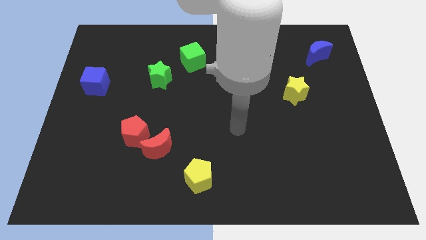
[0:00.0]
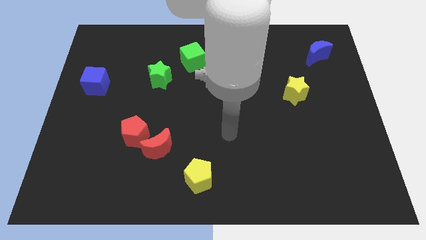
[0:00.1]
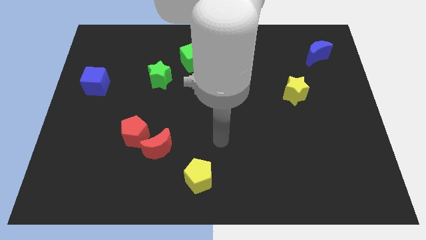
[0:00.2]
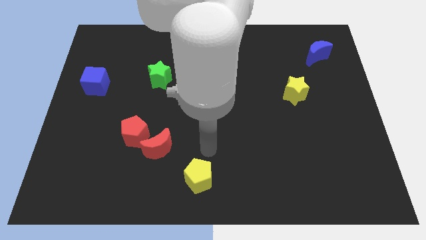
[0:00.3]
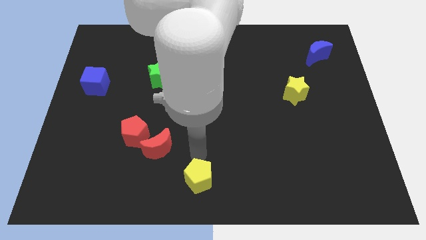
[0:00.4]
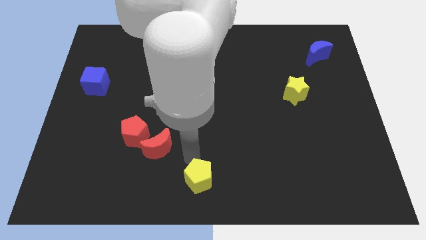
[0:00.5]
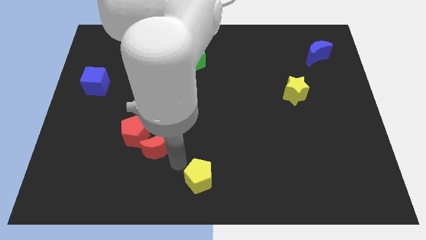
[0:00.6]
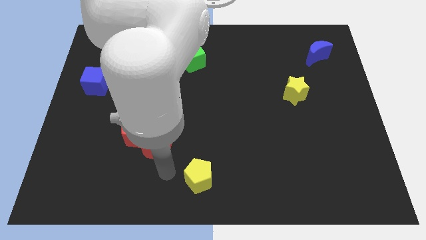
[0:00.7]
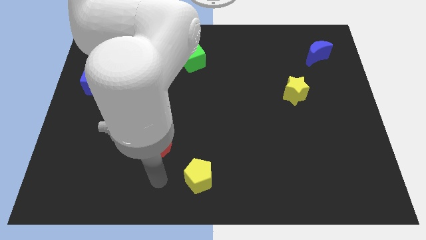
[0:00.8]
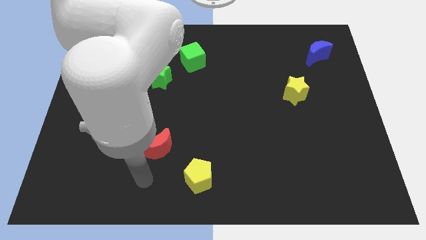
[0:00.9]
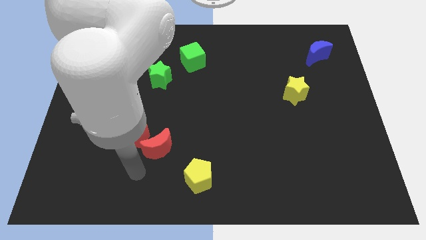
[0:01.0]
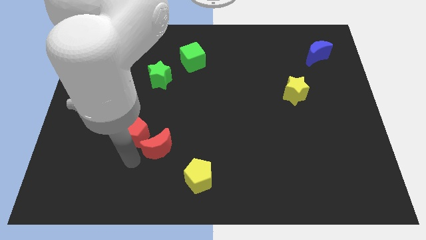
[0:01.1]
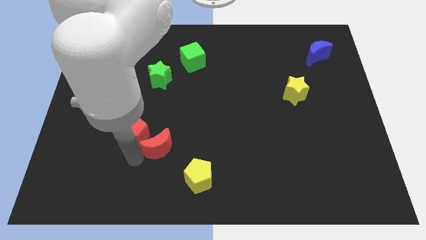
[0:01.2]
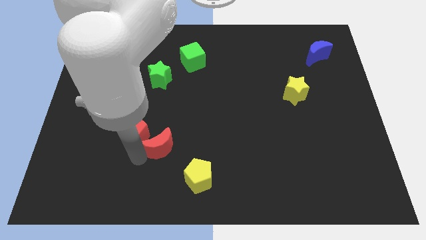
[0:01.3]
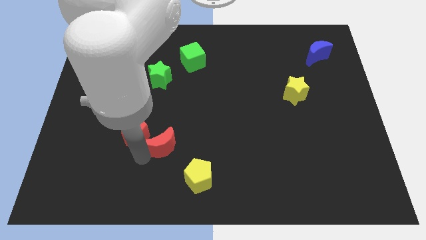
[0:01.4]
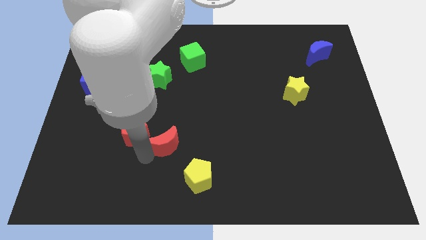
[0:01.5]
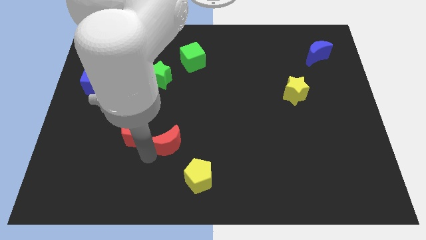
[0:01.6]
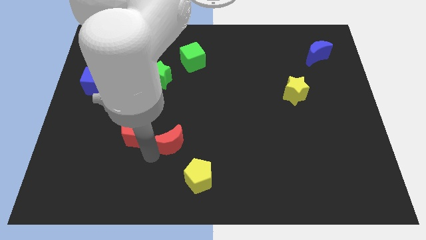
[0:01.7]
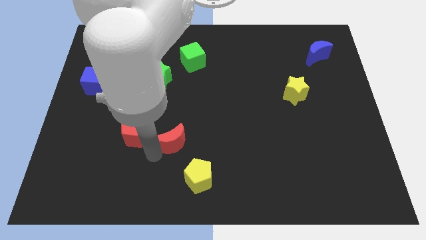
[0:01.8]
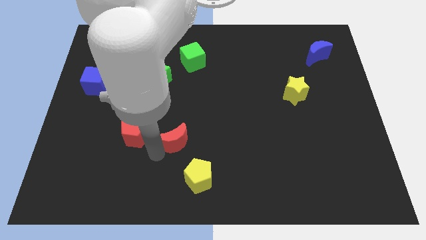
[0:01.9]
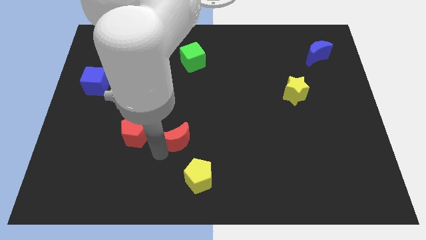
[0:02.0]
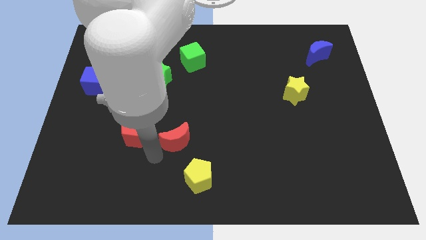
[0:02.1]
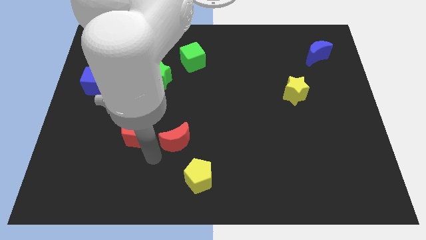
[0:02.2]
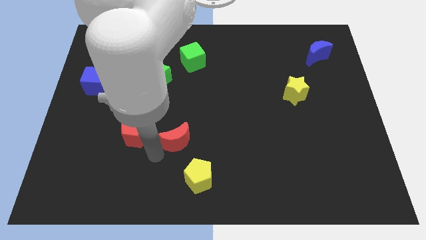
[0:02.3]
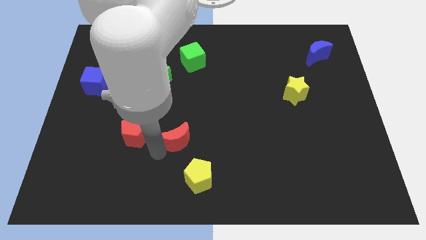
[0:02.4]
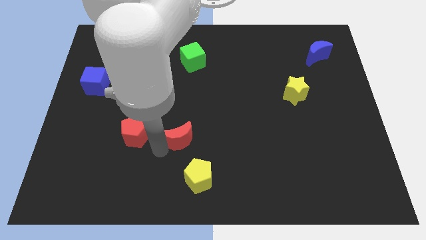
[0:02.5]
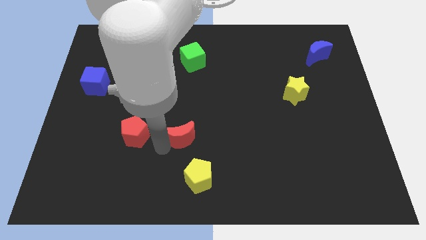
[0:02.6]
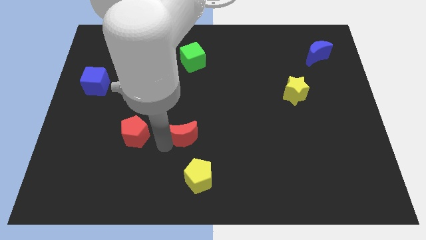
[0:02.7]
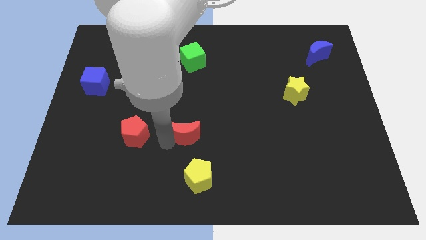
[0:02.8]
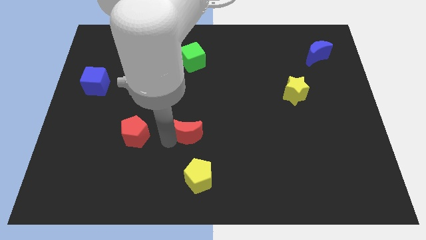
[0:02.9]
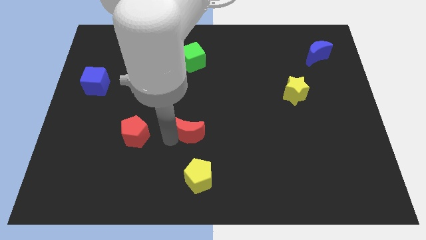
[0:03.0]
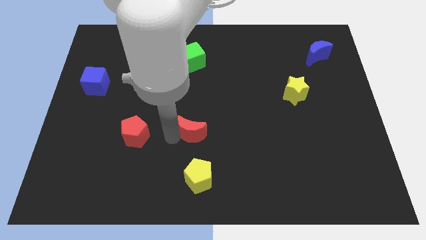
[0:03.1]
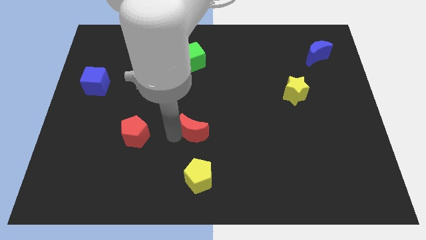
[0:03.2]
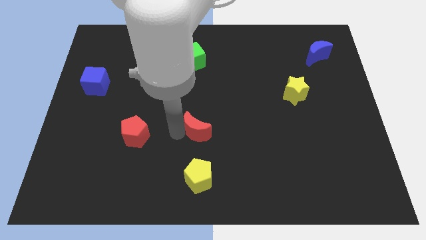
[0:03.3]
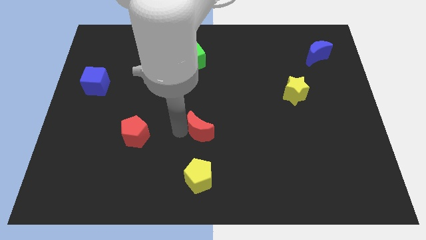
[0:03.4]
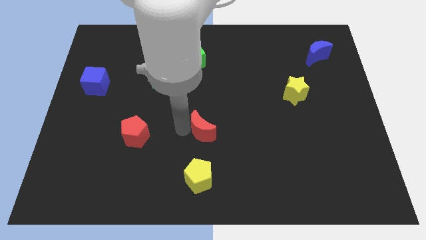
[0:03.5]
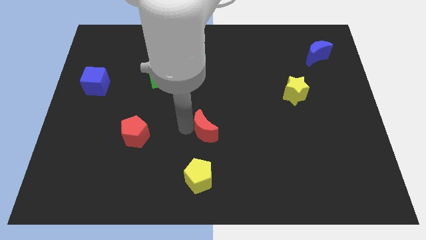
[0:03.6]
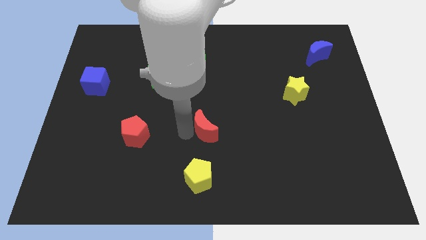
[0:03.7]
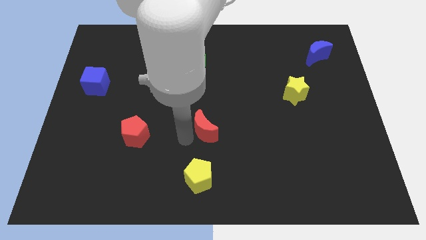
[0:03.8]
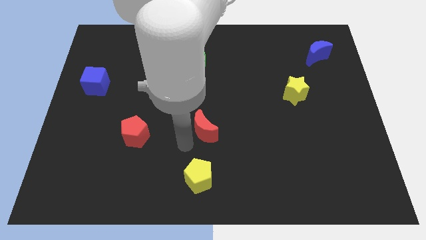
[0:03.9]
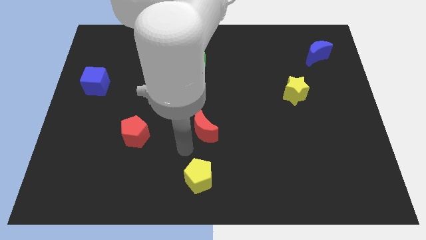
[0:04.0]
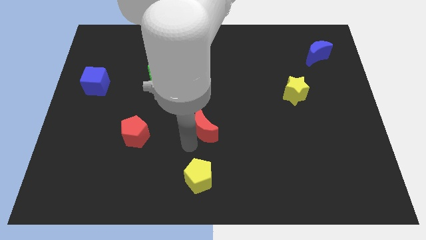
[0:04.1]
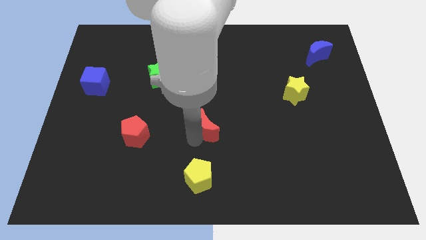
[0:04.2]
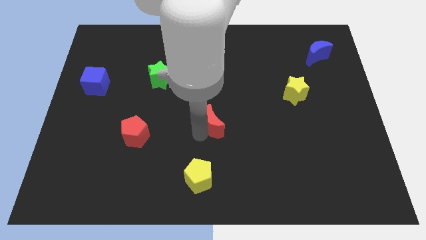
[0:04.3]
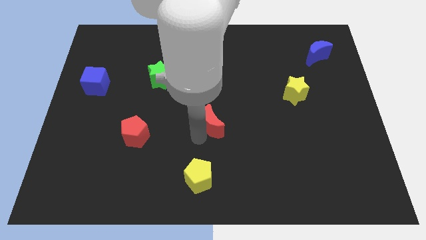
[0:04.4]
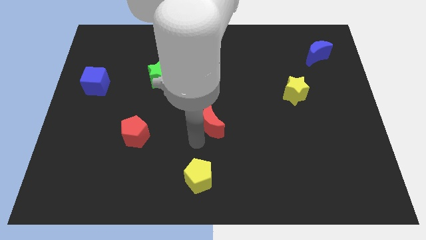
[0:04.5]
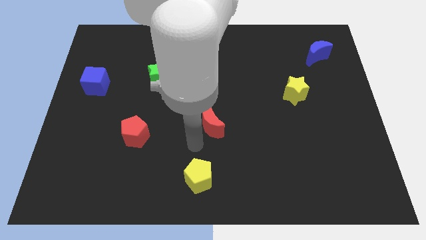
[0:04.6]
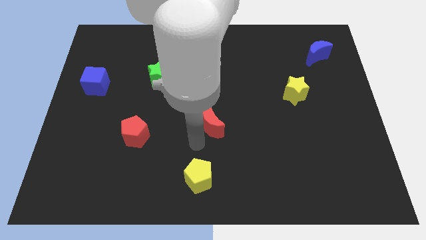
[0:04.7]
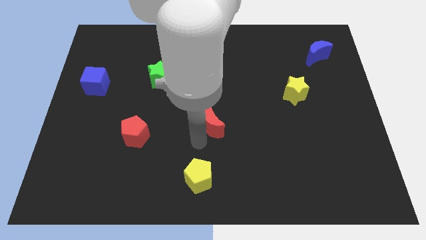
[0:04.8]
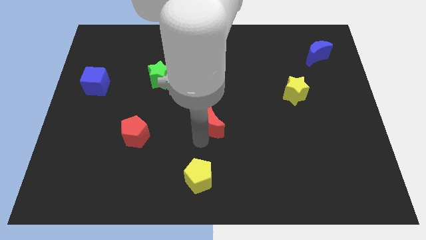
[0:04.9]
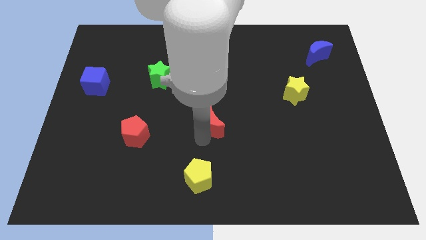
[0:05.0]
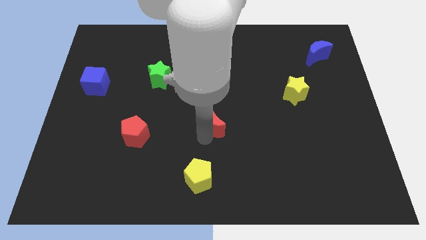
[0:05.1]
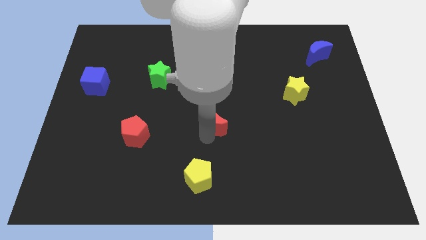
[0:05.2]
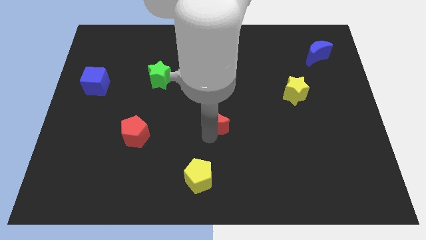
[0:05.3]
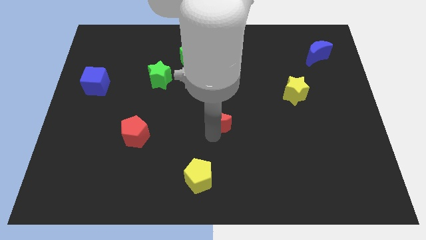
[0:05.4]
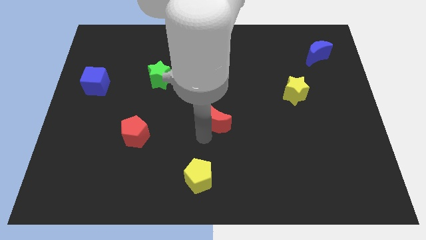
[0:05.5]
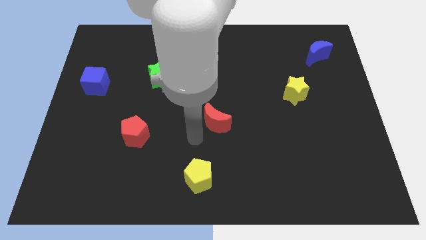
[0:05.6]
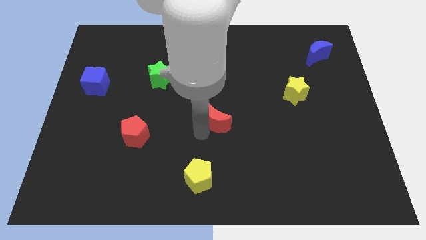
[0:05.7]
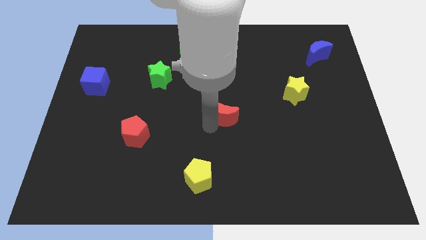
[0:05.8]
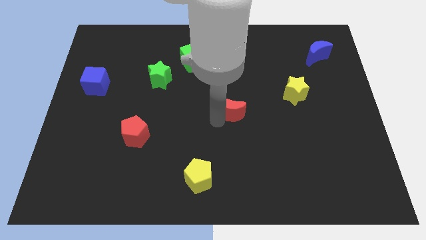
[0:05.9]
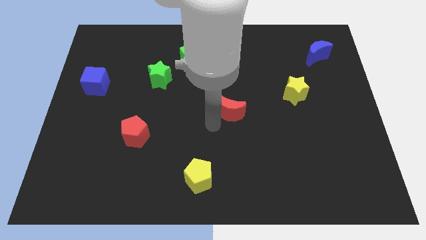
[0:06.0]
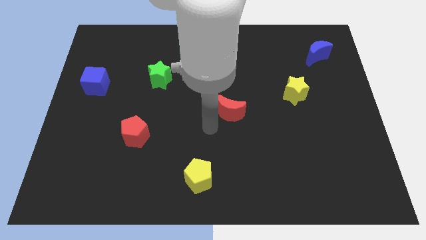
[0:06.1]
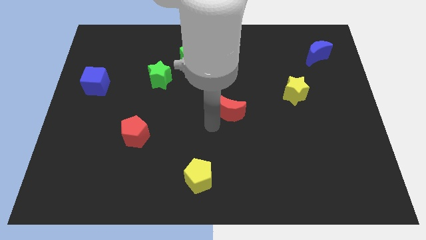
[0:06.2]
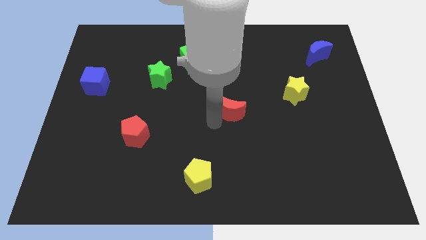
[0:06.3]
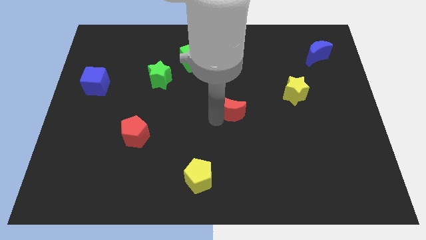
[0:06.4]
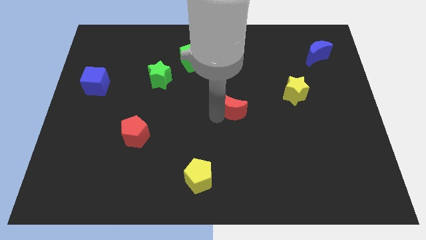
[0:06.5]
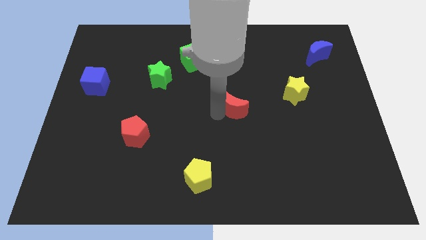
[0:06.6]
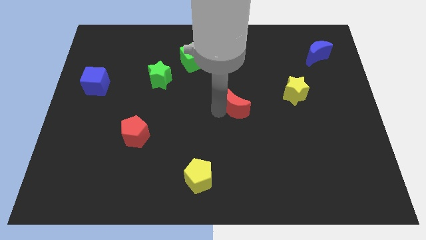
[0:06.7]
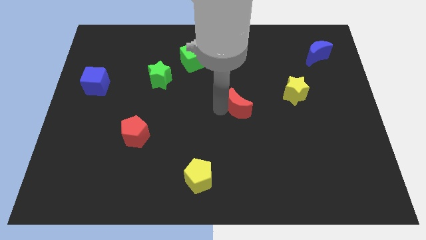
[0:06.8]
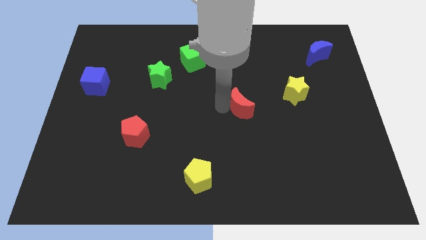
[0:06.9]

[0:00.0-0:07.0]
put the red moon just left of the yellow star

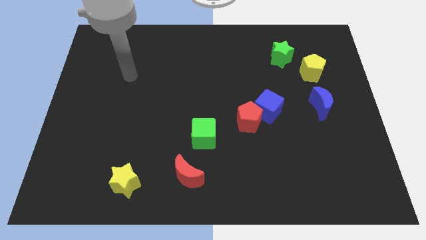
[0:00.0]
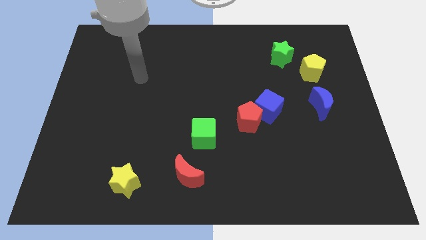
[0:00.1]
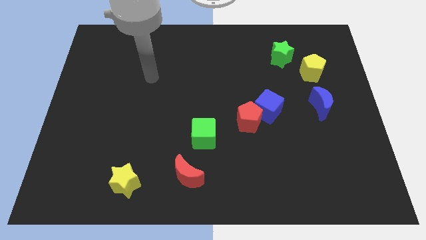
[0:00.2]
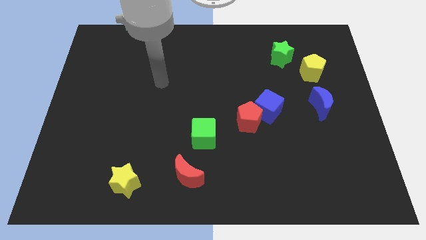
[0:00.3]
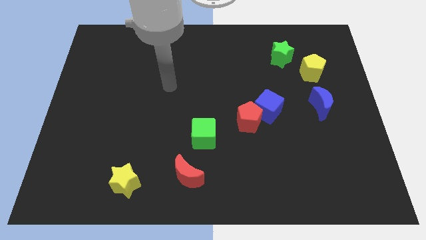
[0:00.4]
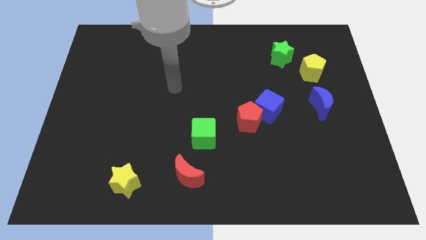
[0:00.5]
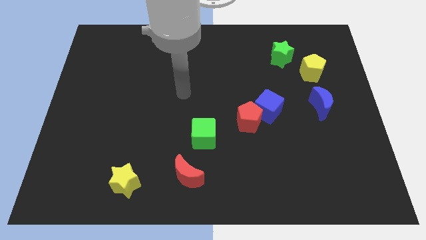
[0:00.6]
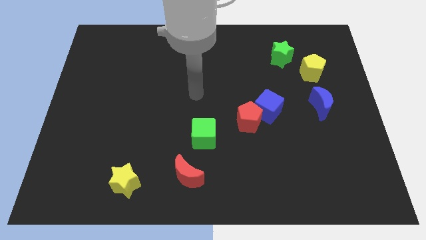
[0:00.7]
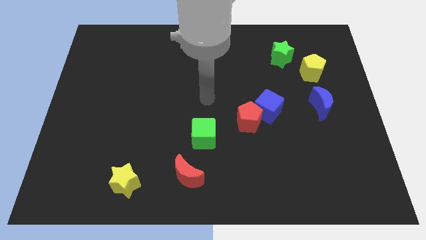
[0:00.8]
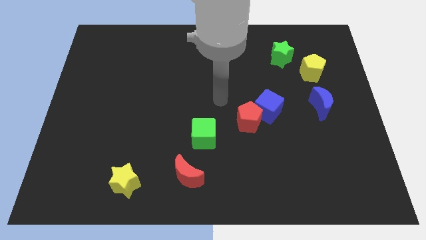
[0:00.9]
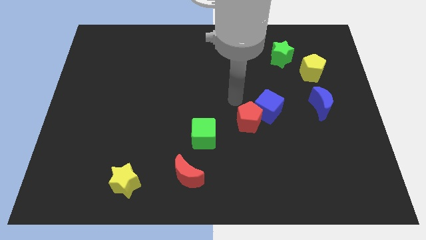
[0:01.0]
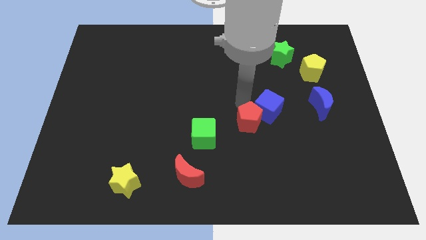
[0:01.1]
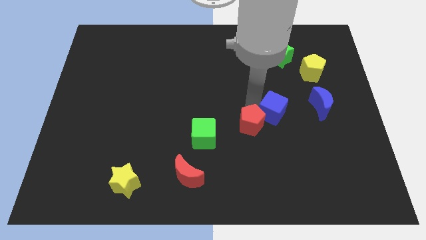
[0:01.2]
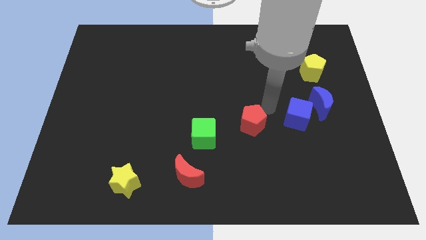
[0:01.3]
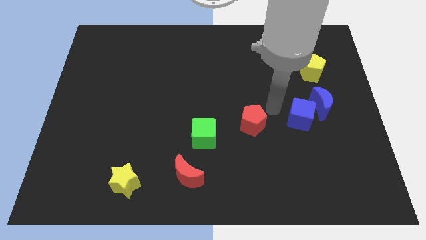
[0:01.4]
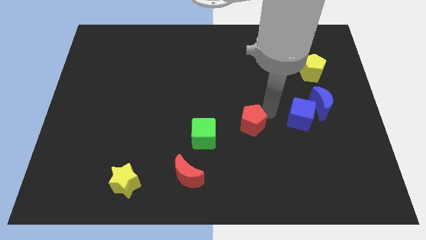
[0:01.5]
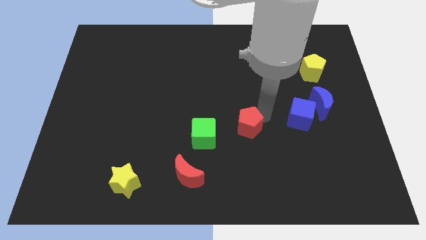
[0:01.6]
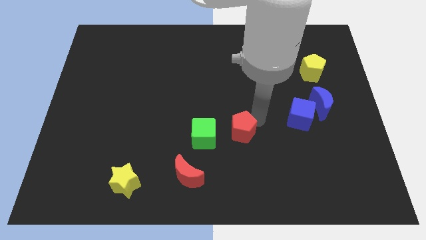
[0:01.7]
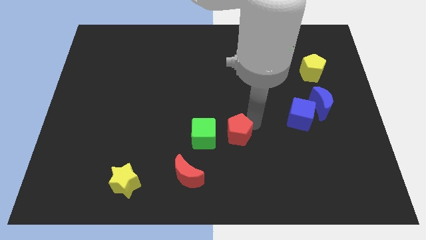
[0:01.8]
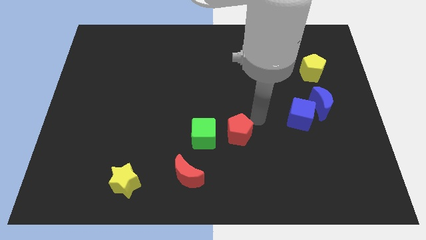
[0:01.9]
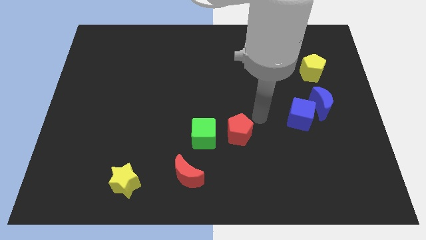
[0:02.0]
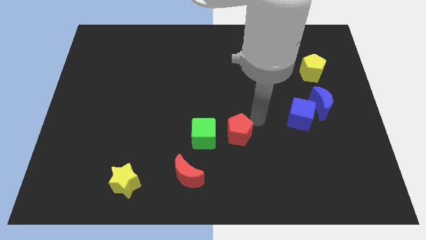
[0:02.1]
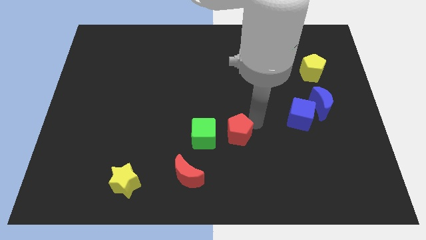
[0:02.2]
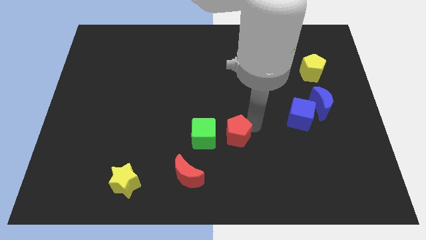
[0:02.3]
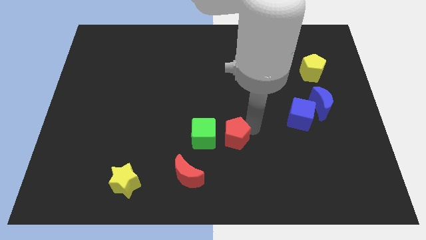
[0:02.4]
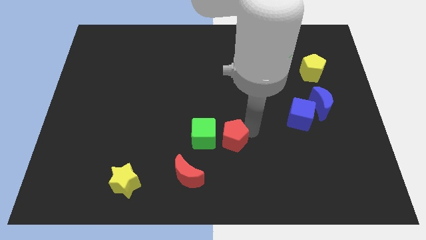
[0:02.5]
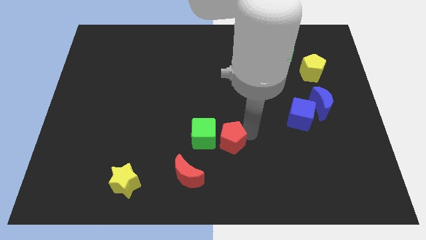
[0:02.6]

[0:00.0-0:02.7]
push the red pentagon to the top right side of the red moon
